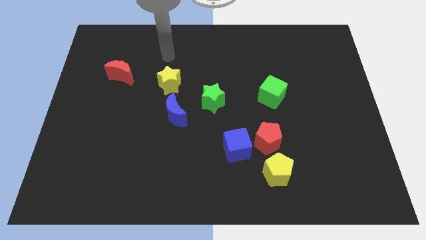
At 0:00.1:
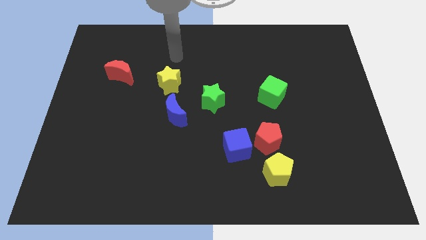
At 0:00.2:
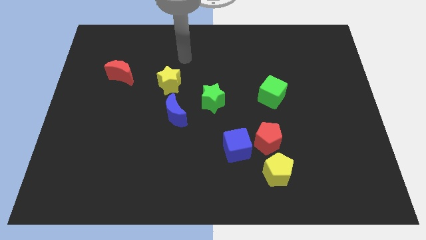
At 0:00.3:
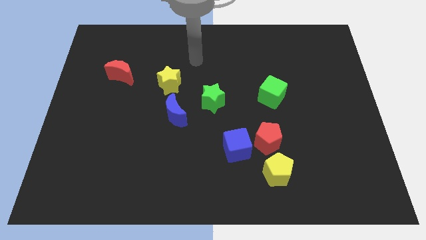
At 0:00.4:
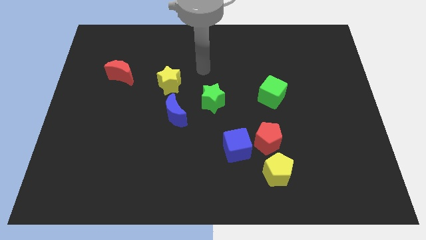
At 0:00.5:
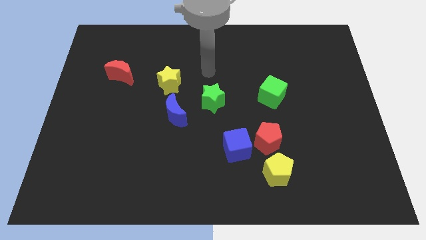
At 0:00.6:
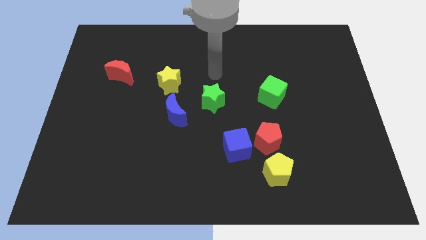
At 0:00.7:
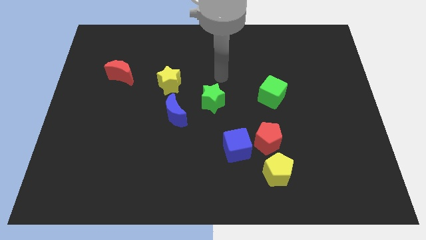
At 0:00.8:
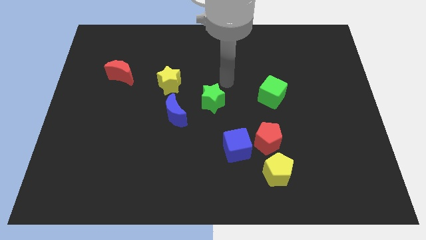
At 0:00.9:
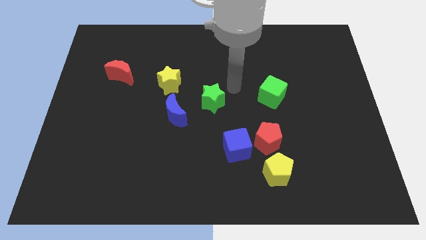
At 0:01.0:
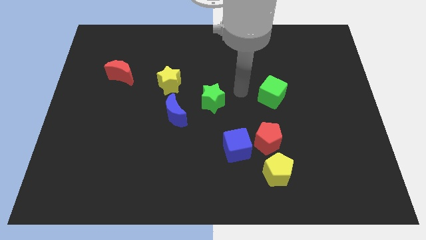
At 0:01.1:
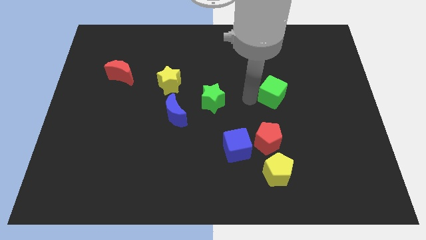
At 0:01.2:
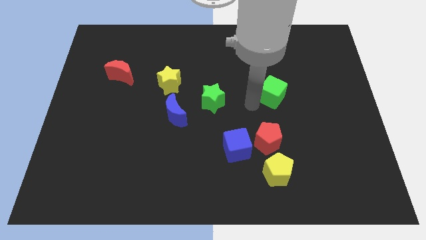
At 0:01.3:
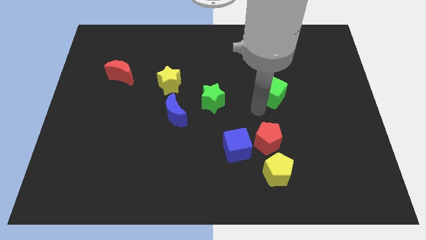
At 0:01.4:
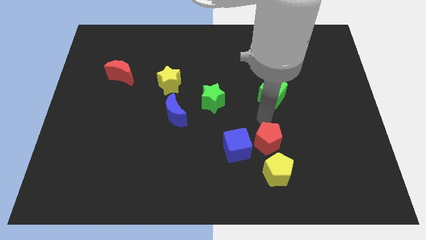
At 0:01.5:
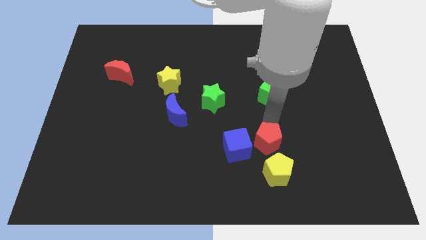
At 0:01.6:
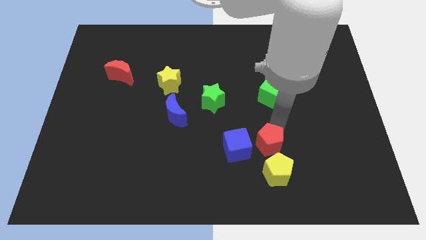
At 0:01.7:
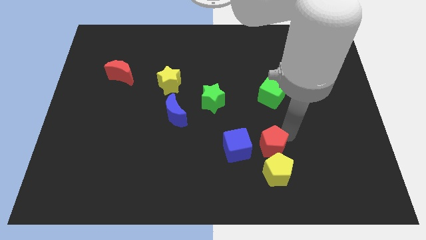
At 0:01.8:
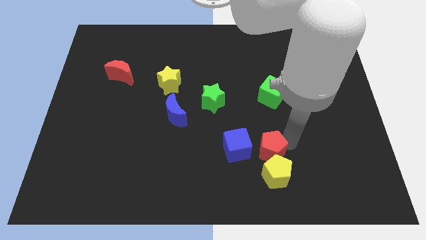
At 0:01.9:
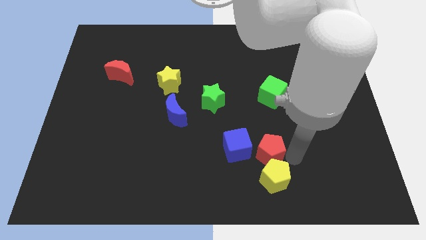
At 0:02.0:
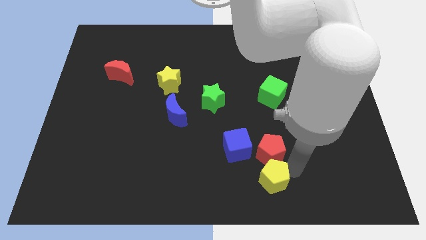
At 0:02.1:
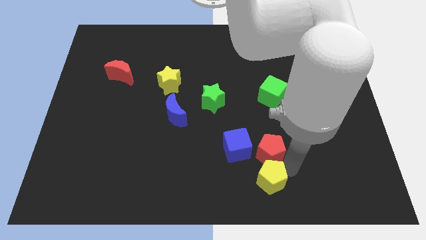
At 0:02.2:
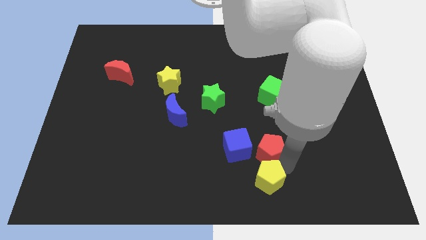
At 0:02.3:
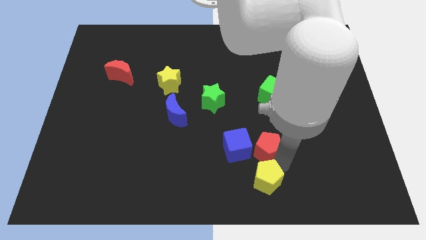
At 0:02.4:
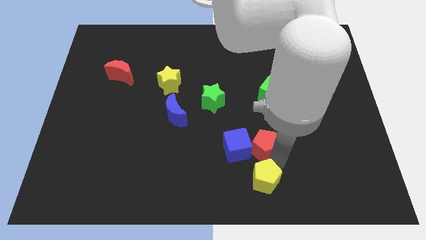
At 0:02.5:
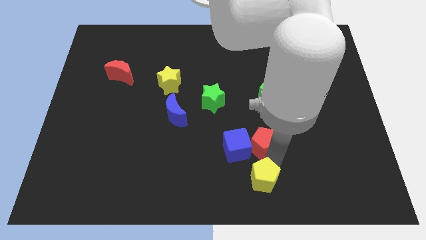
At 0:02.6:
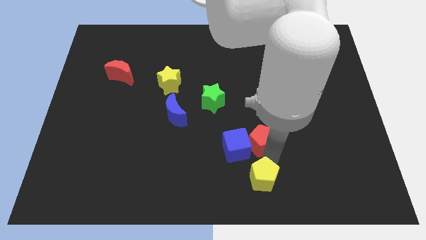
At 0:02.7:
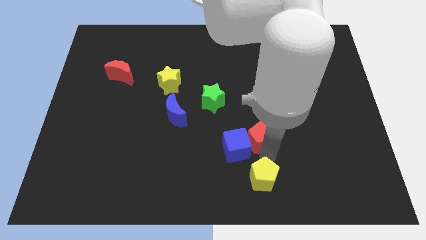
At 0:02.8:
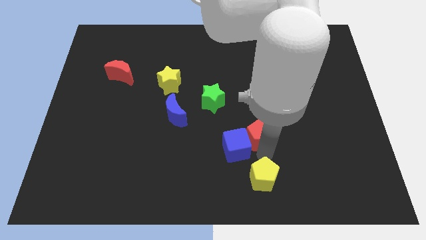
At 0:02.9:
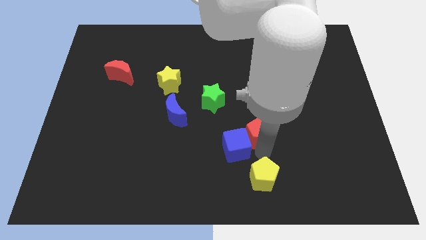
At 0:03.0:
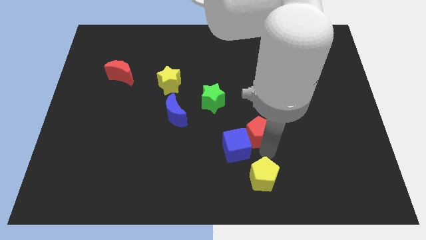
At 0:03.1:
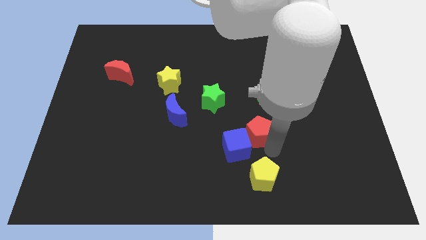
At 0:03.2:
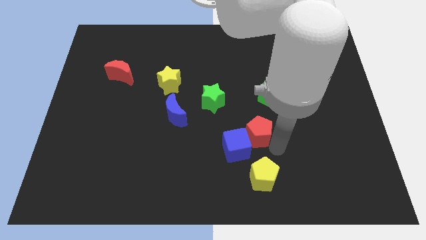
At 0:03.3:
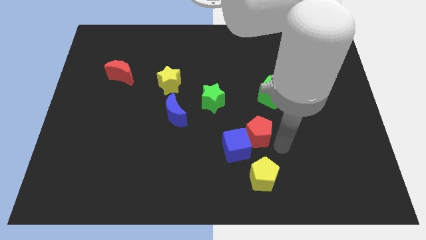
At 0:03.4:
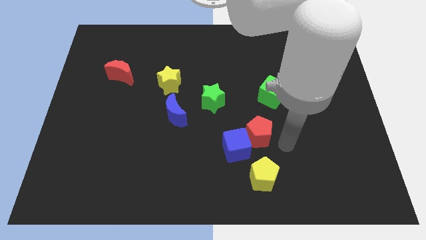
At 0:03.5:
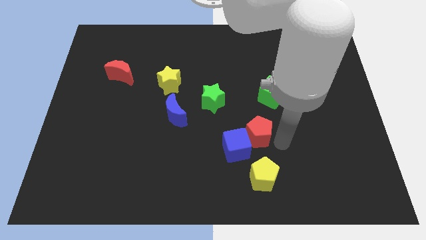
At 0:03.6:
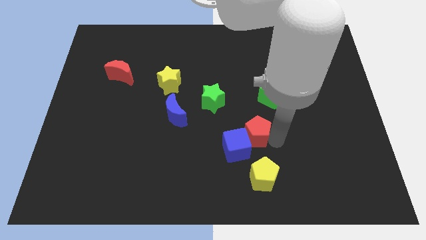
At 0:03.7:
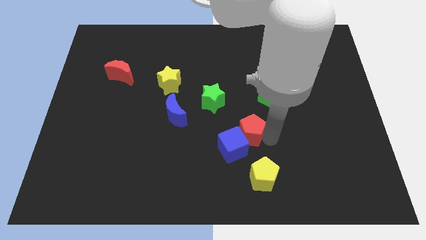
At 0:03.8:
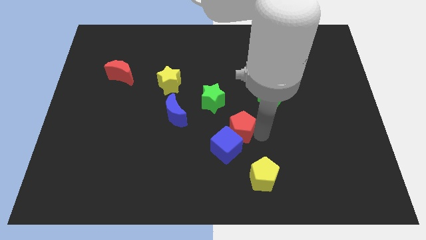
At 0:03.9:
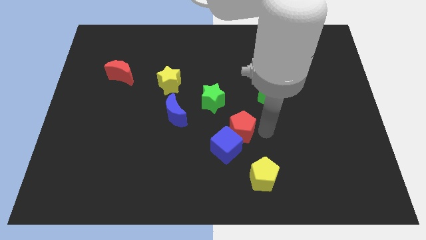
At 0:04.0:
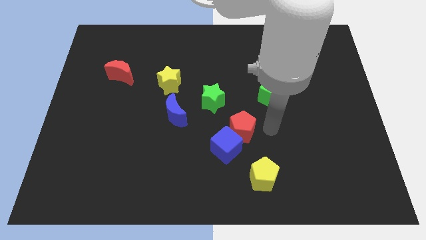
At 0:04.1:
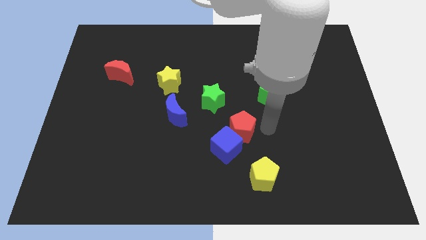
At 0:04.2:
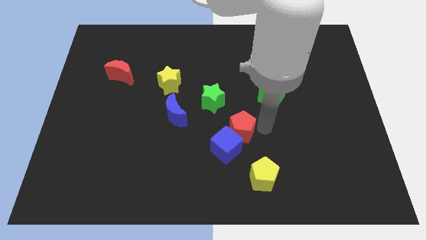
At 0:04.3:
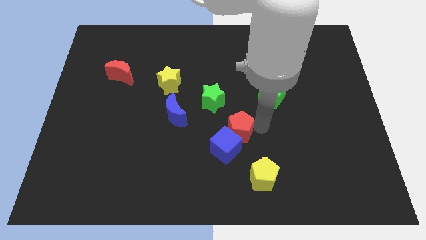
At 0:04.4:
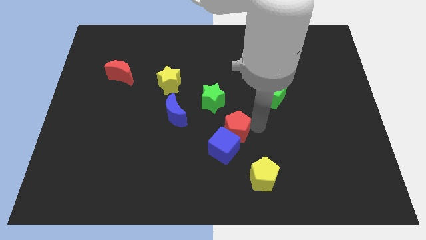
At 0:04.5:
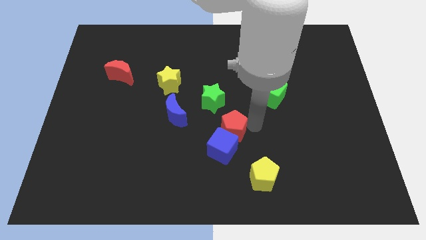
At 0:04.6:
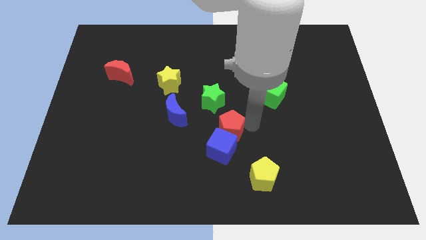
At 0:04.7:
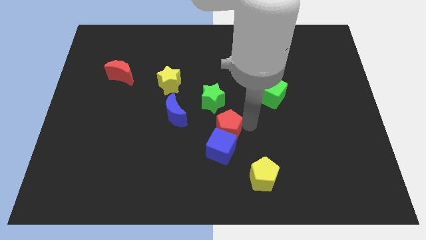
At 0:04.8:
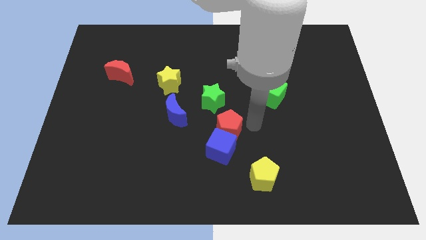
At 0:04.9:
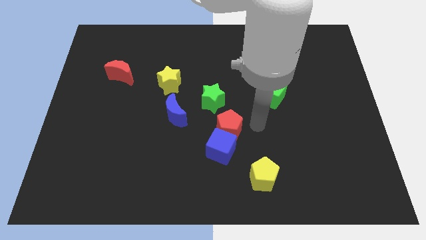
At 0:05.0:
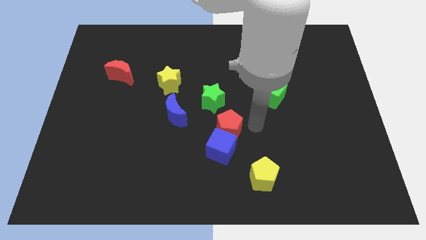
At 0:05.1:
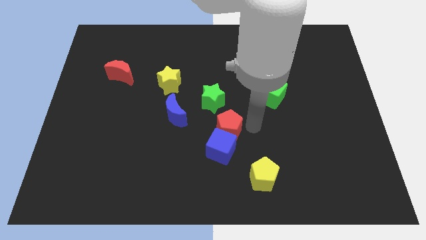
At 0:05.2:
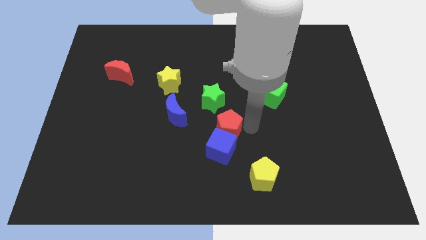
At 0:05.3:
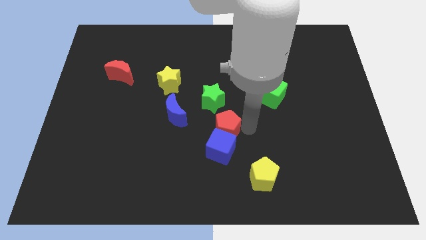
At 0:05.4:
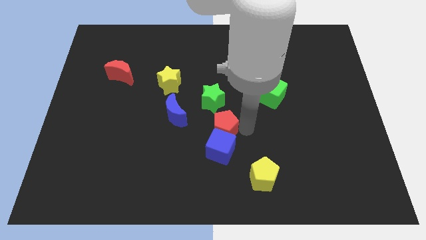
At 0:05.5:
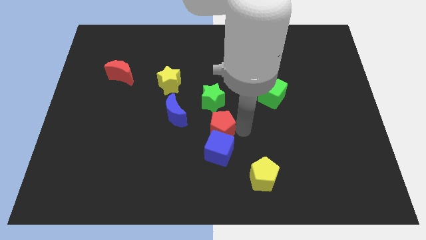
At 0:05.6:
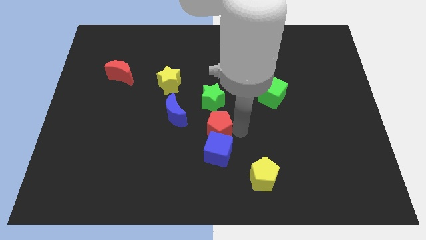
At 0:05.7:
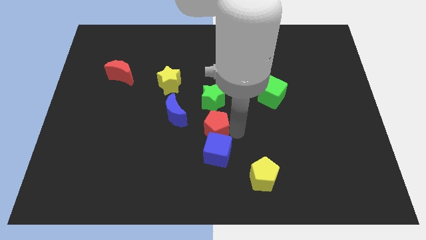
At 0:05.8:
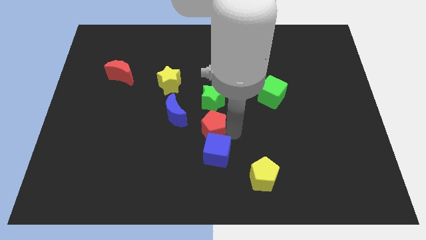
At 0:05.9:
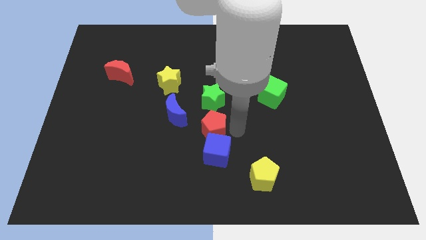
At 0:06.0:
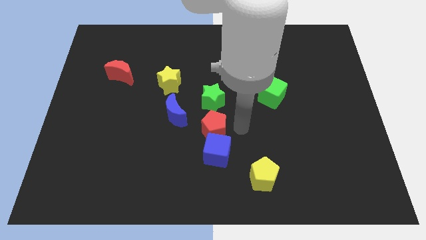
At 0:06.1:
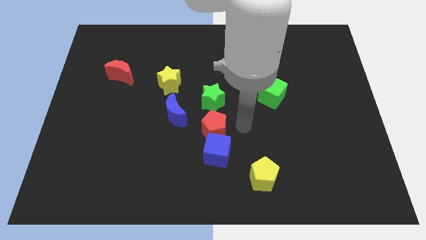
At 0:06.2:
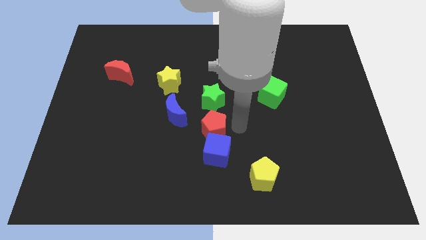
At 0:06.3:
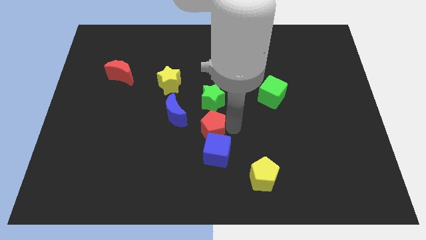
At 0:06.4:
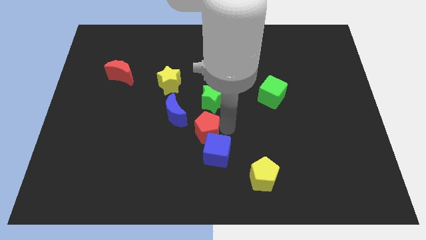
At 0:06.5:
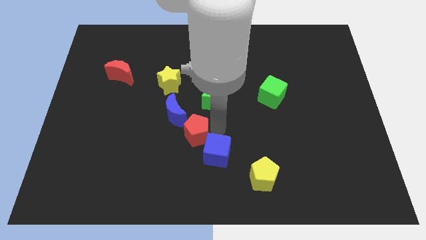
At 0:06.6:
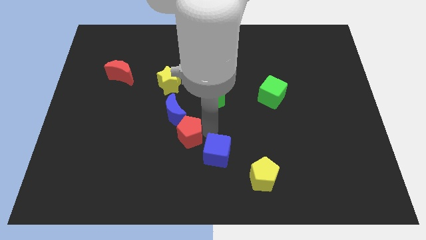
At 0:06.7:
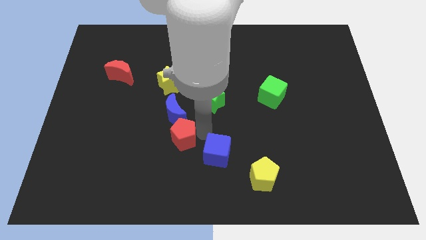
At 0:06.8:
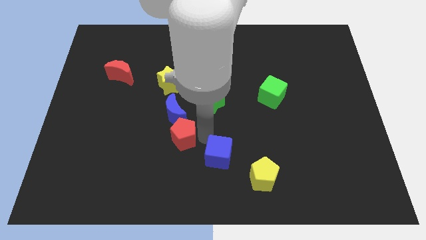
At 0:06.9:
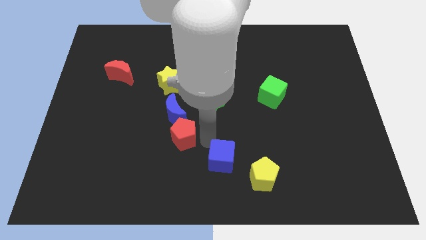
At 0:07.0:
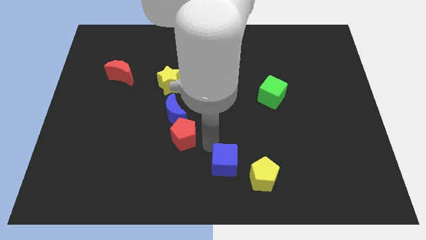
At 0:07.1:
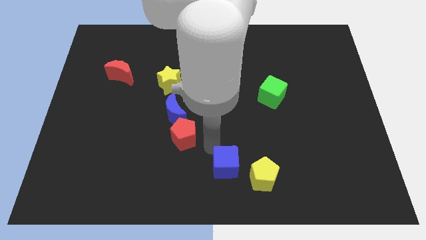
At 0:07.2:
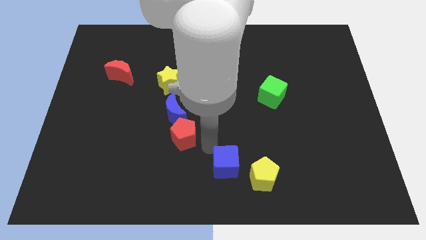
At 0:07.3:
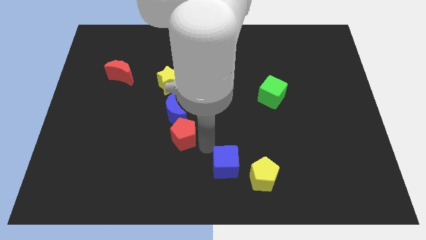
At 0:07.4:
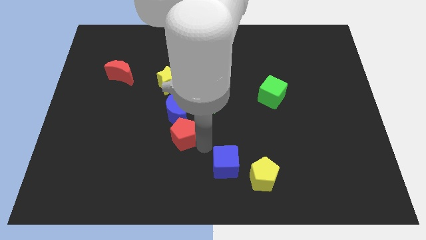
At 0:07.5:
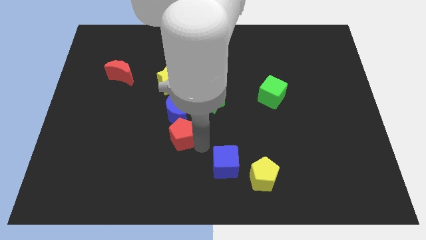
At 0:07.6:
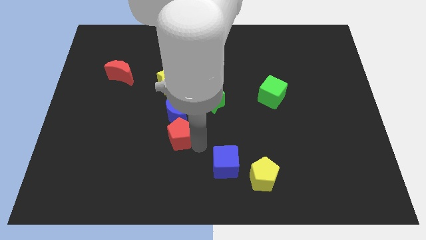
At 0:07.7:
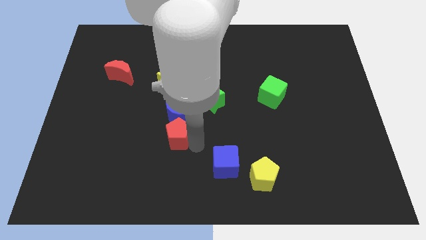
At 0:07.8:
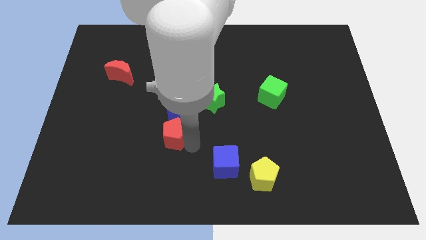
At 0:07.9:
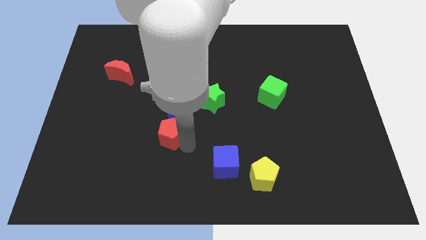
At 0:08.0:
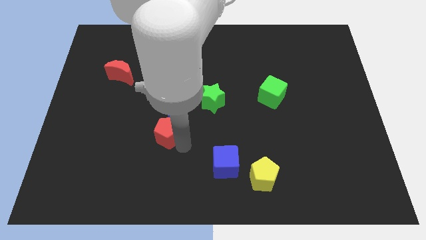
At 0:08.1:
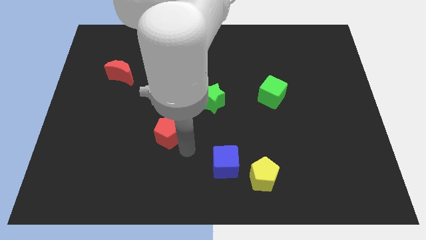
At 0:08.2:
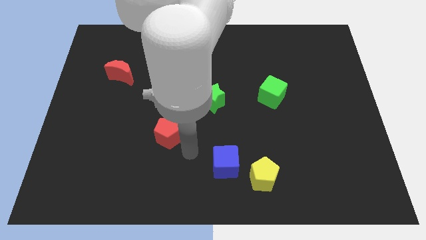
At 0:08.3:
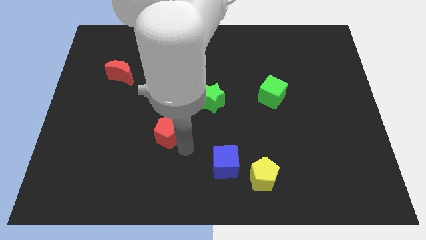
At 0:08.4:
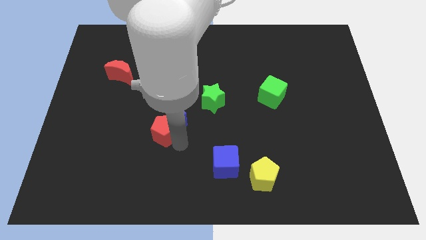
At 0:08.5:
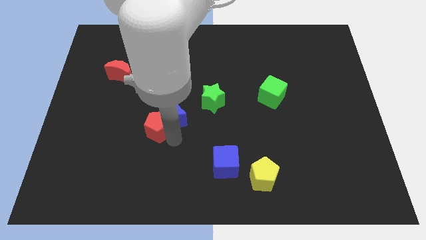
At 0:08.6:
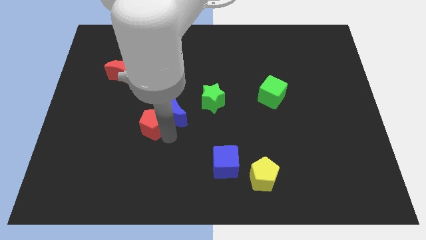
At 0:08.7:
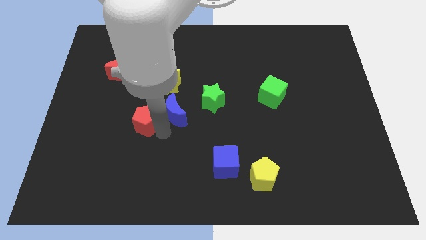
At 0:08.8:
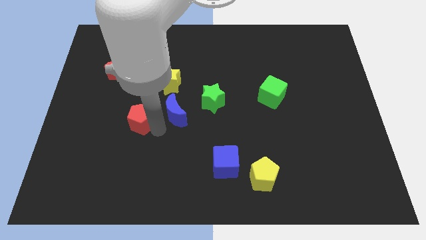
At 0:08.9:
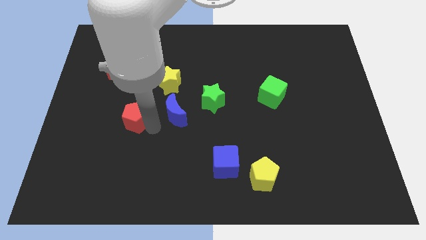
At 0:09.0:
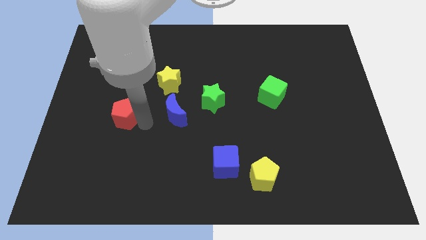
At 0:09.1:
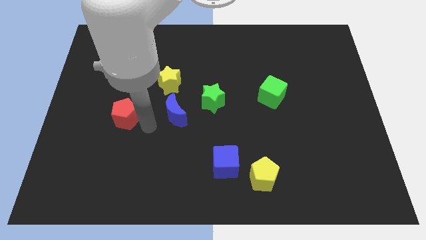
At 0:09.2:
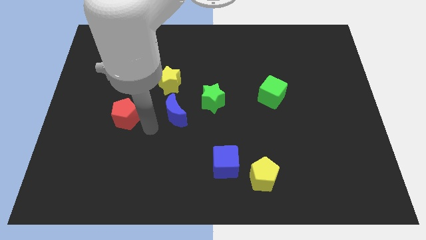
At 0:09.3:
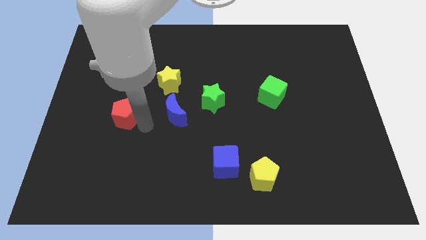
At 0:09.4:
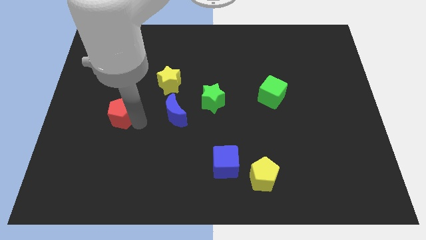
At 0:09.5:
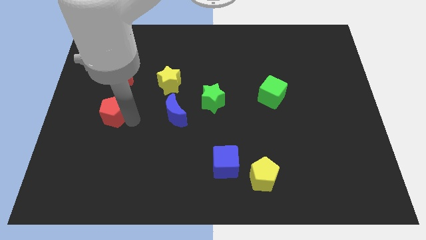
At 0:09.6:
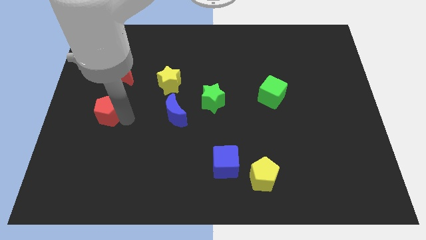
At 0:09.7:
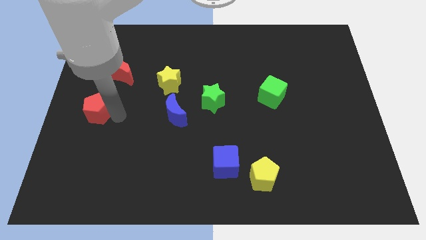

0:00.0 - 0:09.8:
move the red pentagon to the left side
